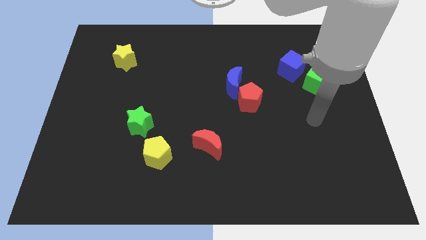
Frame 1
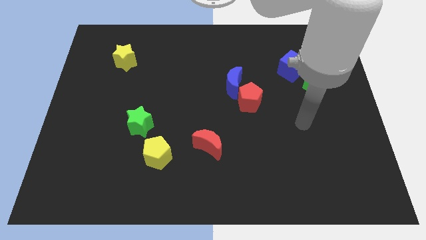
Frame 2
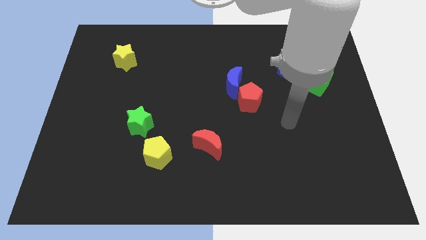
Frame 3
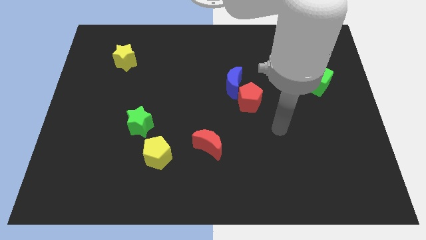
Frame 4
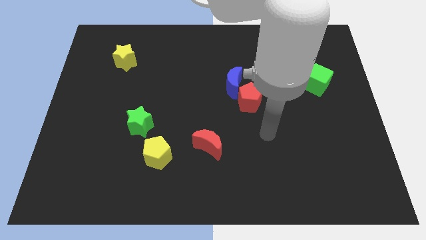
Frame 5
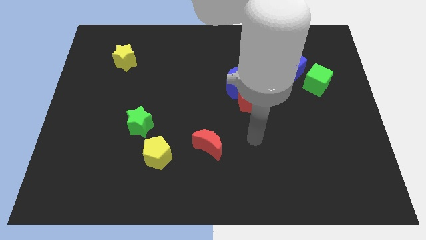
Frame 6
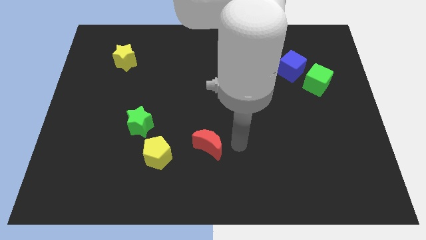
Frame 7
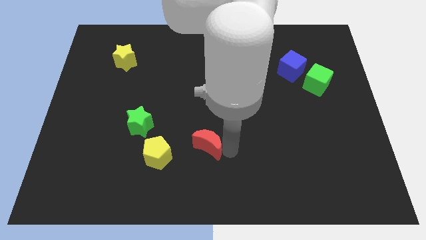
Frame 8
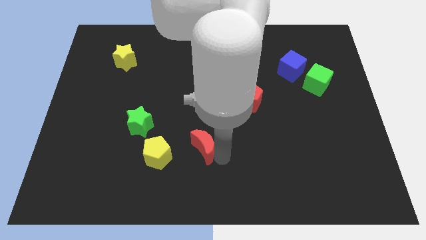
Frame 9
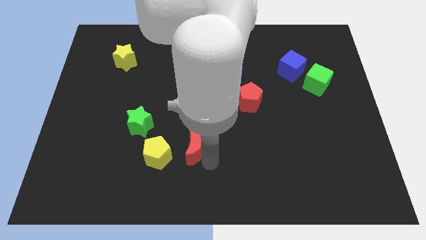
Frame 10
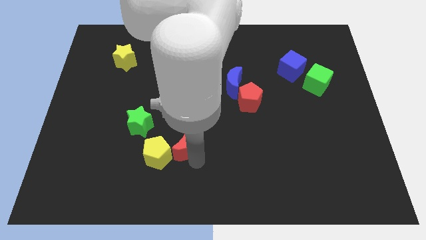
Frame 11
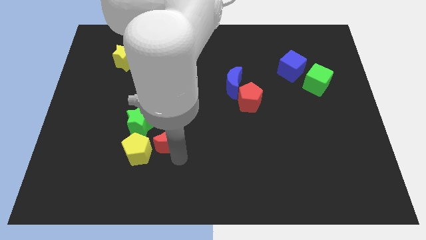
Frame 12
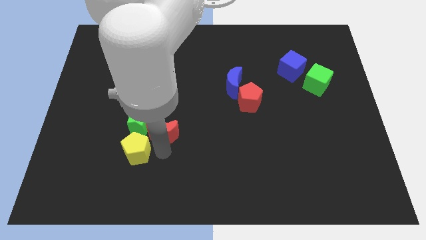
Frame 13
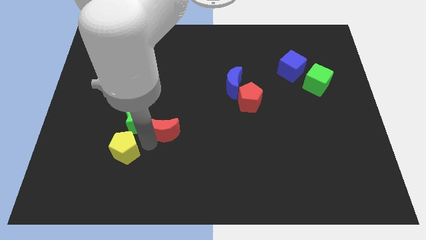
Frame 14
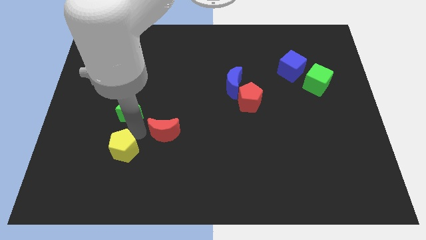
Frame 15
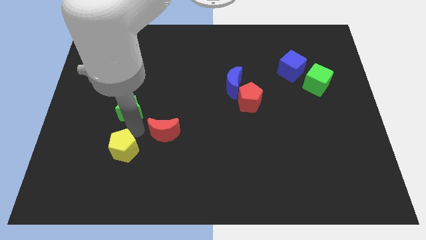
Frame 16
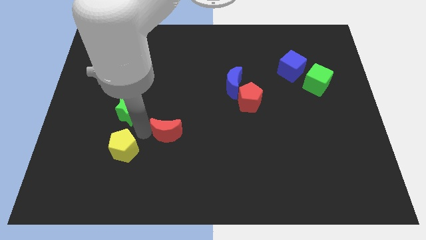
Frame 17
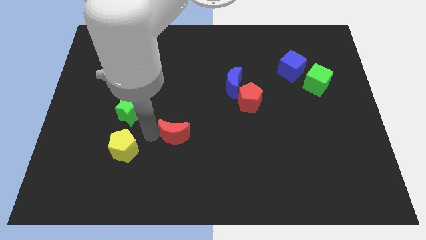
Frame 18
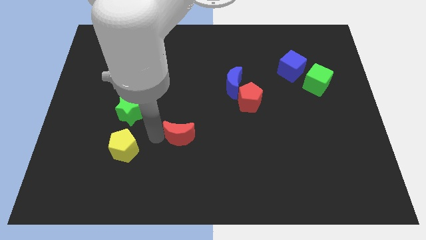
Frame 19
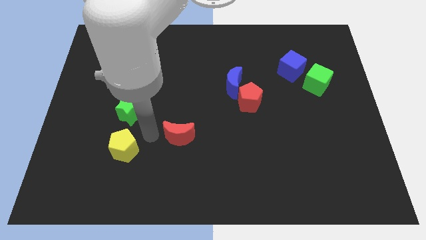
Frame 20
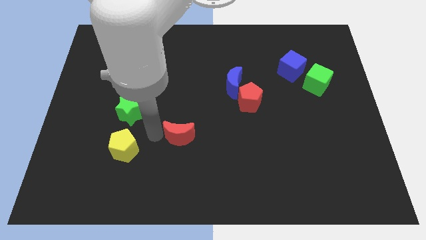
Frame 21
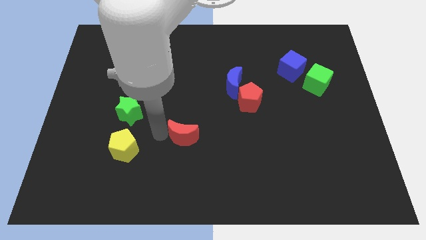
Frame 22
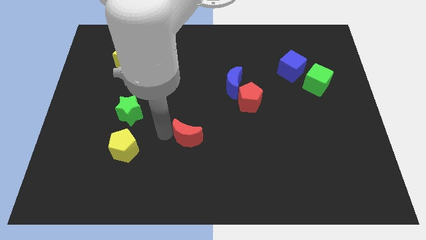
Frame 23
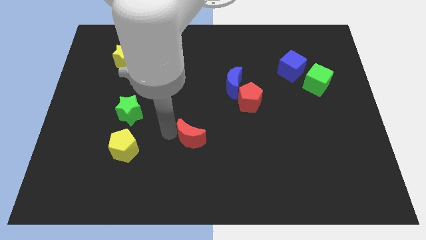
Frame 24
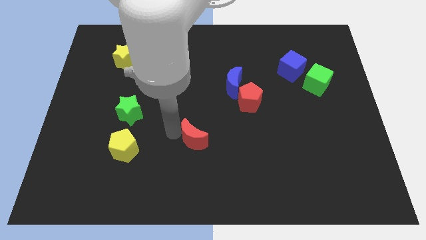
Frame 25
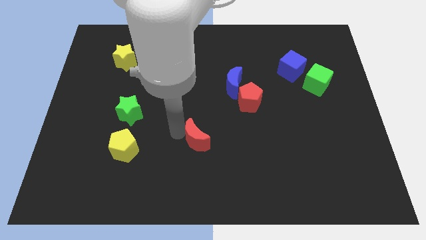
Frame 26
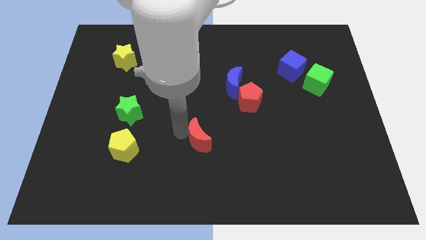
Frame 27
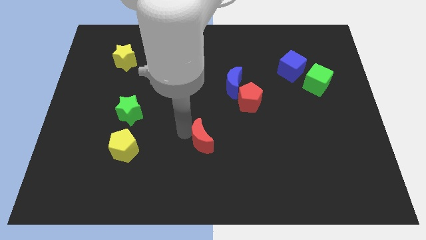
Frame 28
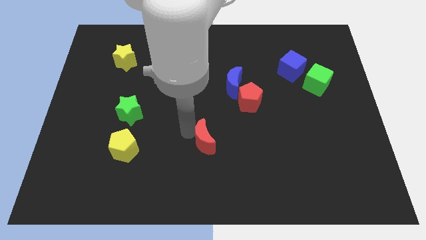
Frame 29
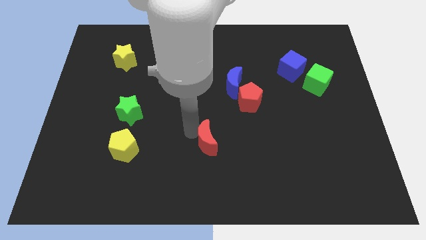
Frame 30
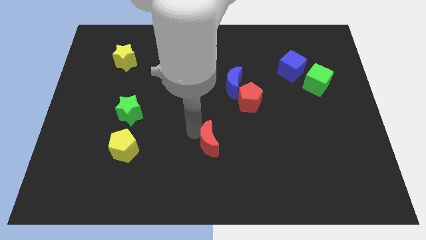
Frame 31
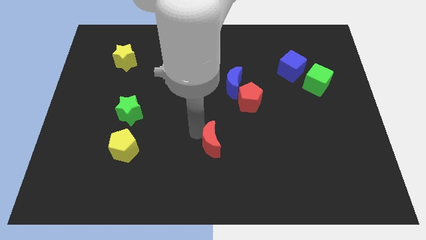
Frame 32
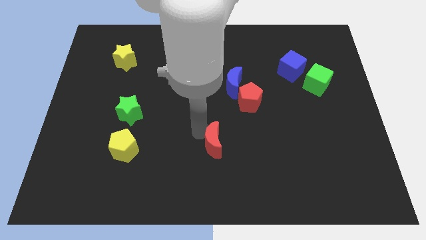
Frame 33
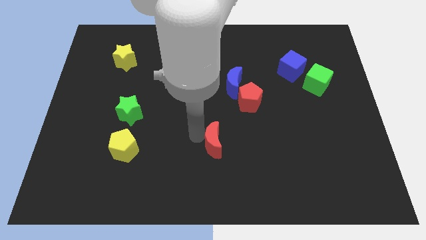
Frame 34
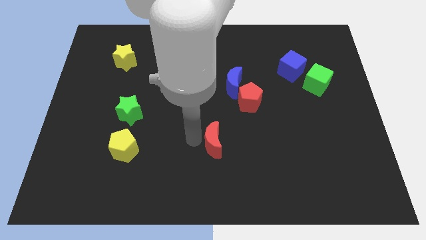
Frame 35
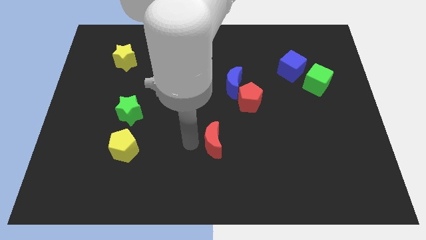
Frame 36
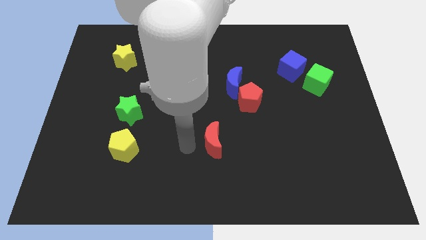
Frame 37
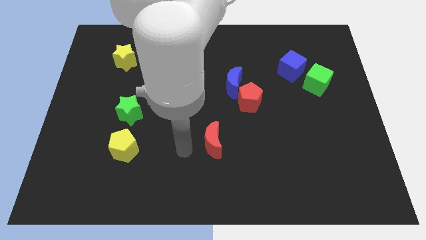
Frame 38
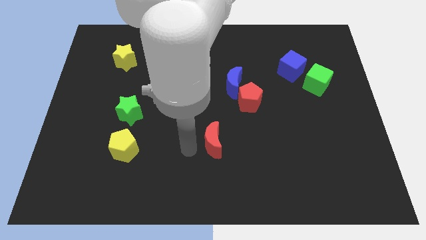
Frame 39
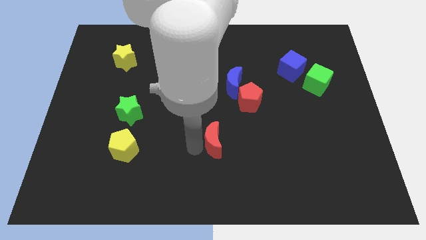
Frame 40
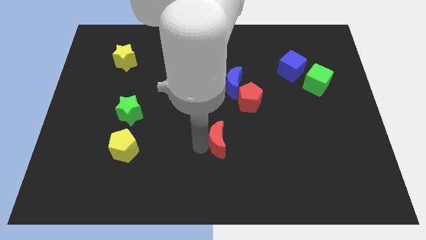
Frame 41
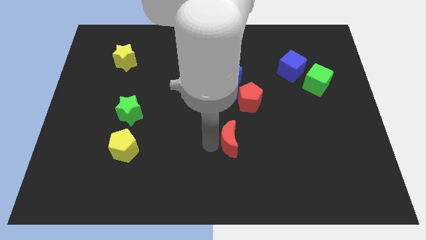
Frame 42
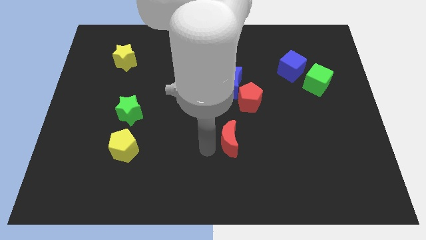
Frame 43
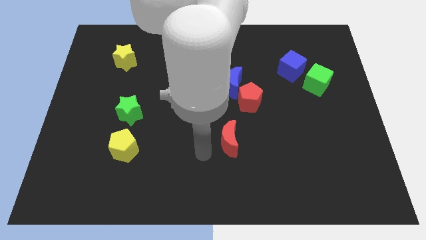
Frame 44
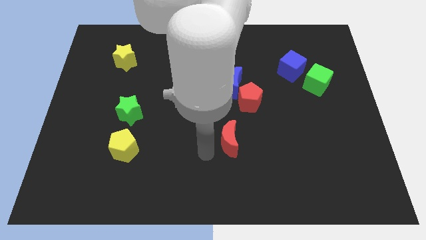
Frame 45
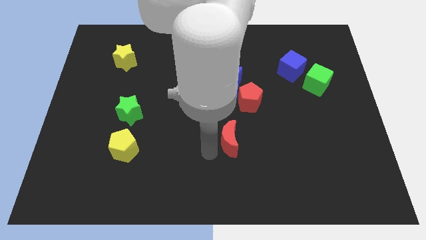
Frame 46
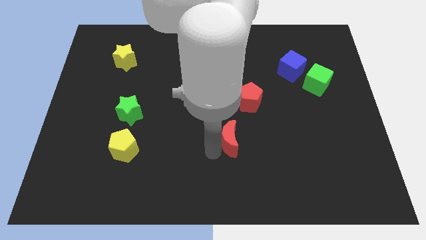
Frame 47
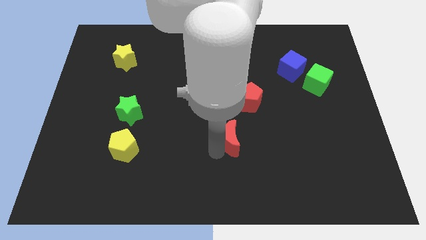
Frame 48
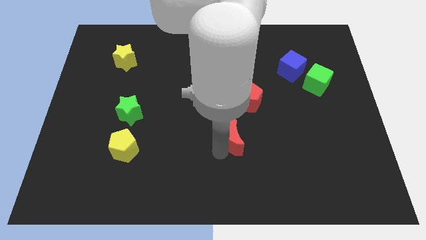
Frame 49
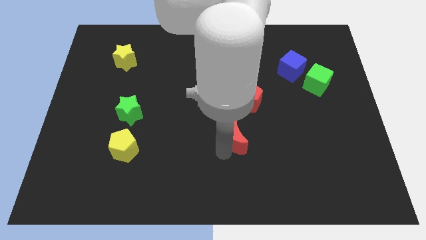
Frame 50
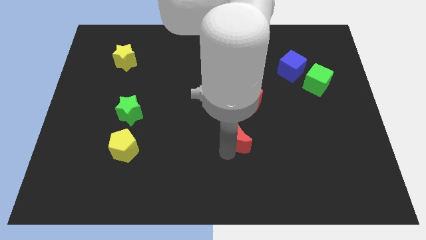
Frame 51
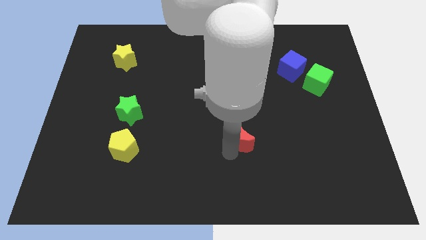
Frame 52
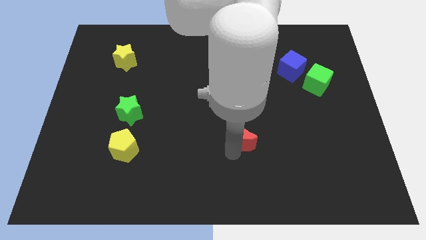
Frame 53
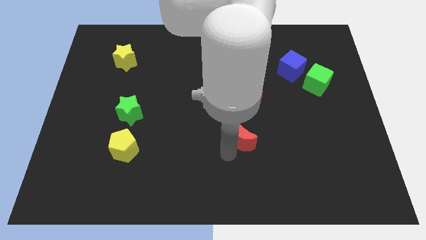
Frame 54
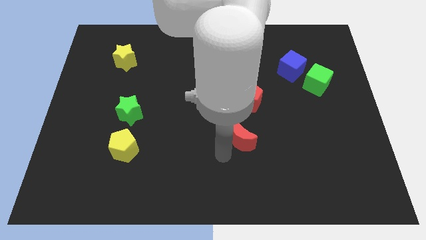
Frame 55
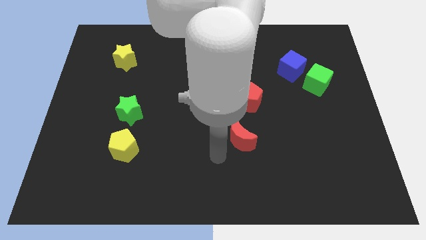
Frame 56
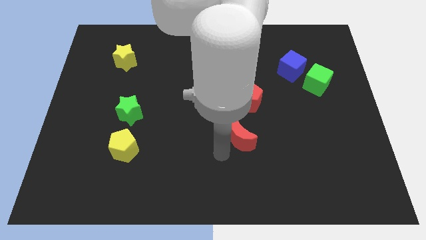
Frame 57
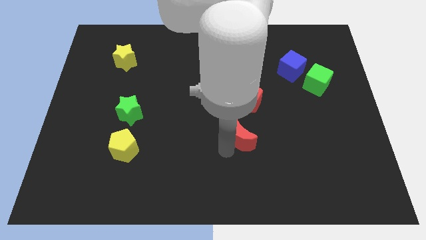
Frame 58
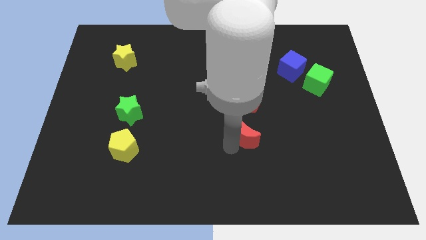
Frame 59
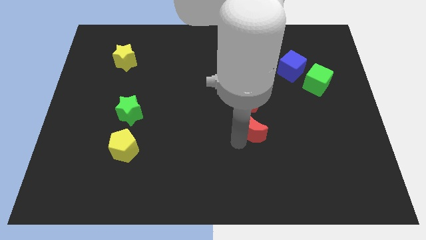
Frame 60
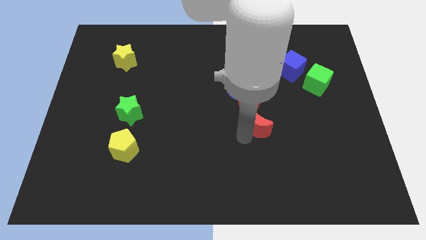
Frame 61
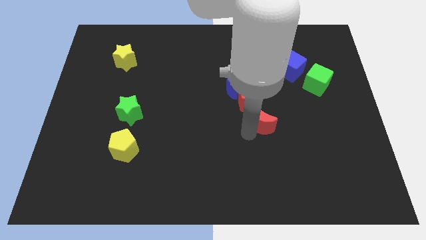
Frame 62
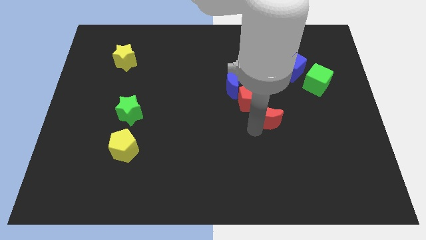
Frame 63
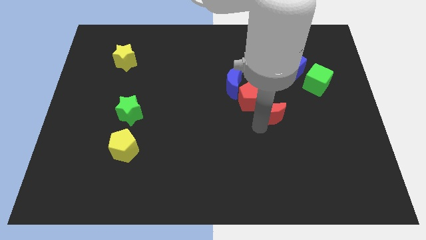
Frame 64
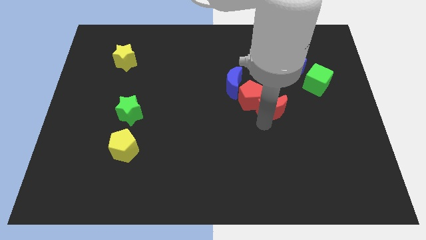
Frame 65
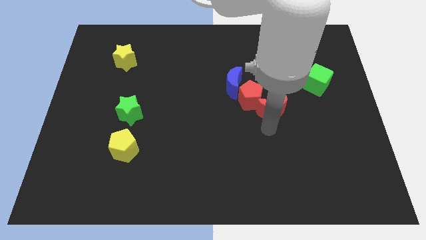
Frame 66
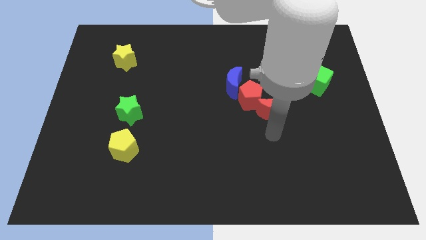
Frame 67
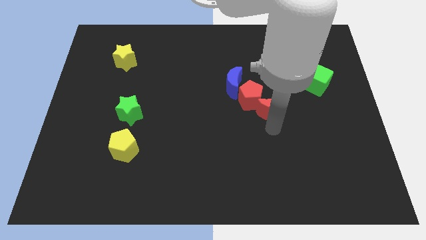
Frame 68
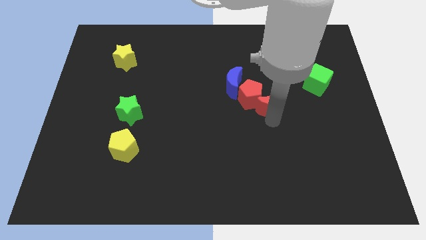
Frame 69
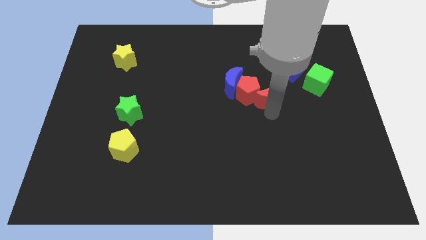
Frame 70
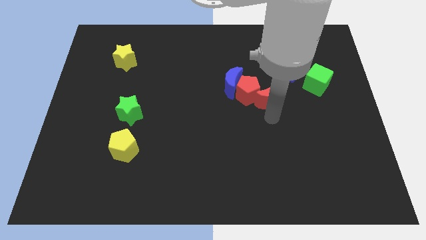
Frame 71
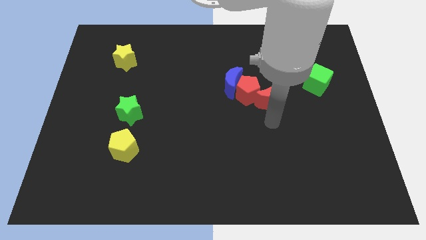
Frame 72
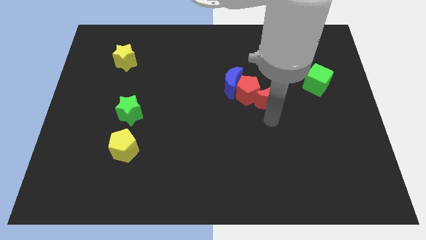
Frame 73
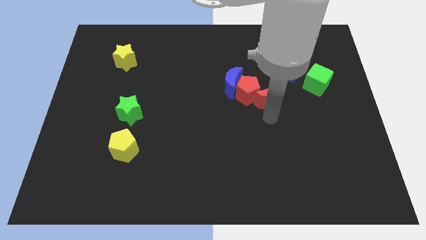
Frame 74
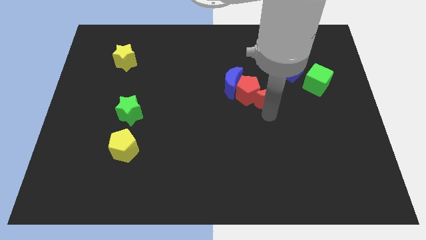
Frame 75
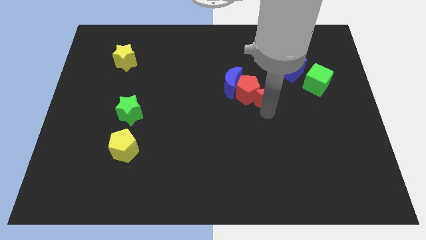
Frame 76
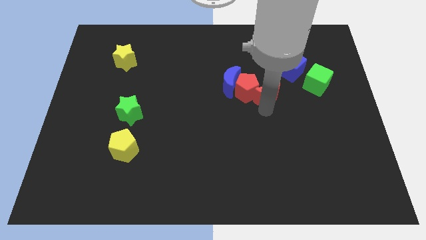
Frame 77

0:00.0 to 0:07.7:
slide the red moon diagonally up and to the right of the red pentagon

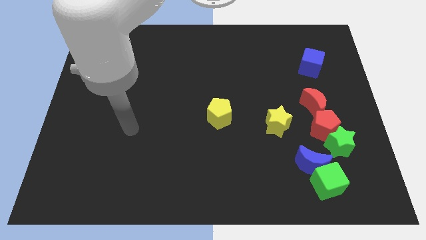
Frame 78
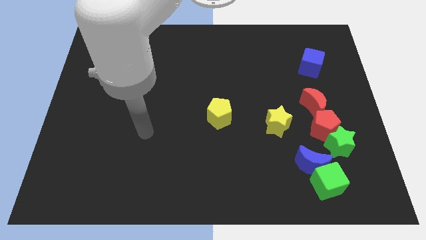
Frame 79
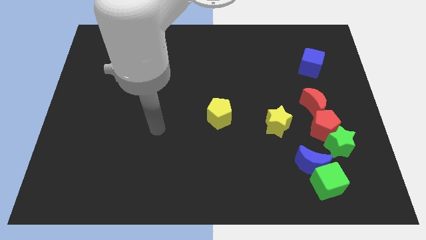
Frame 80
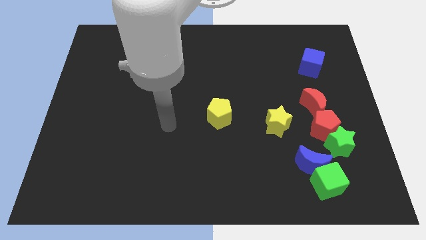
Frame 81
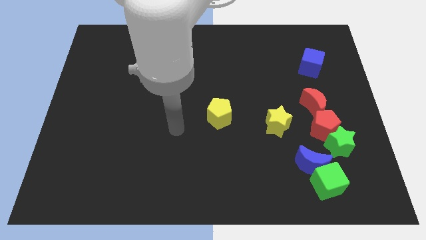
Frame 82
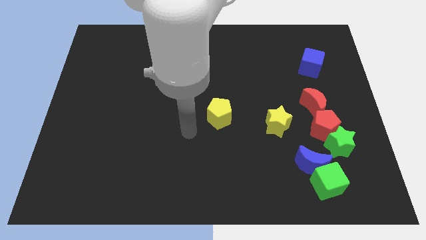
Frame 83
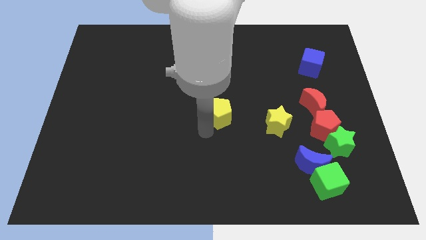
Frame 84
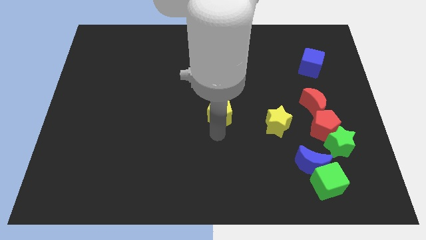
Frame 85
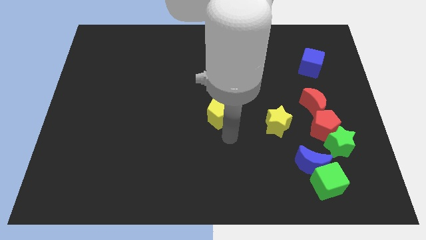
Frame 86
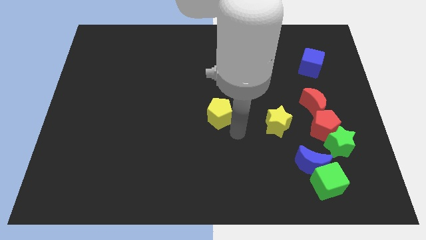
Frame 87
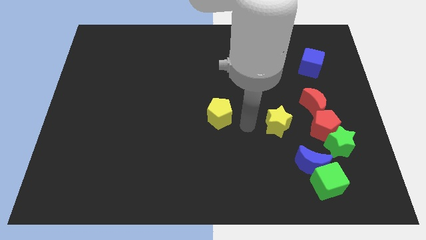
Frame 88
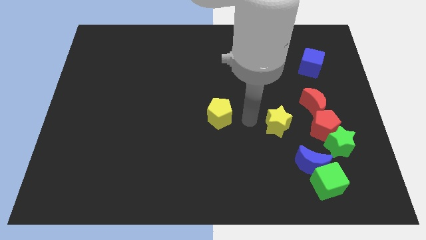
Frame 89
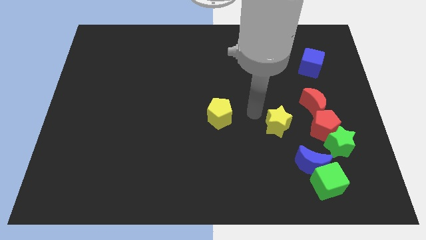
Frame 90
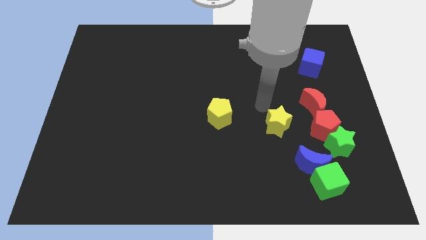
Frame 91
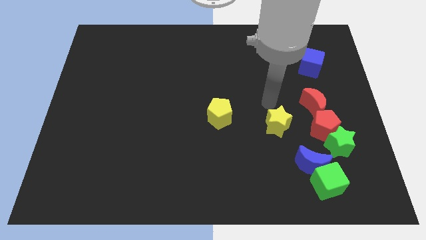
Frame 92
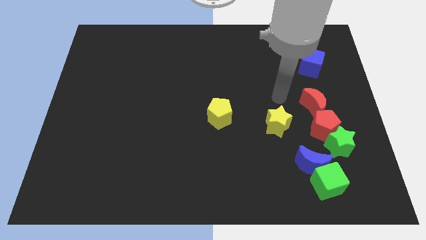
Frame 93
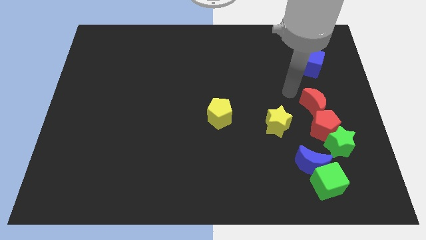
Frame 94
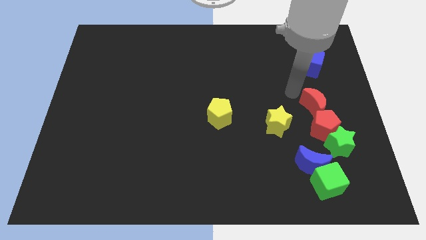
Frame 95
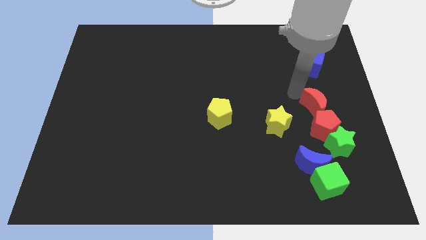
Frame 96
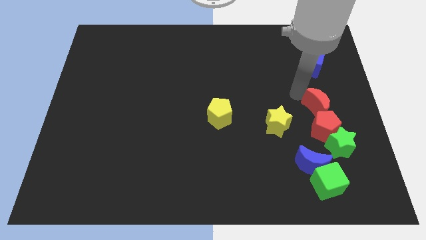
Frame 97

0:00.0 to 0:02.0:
push the red moon to the right side of the yellow star
